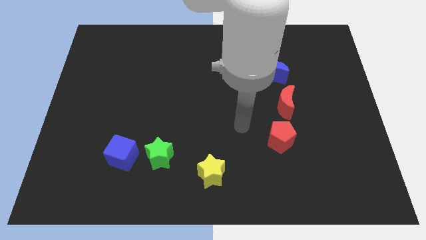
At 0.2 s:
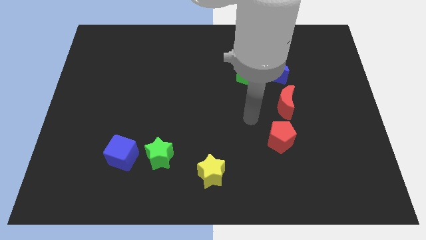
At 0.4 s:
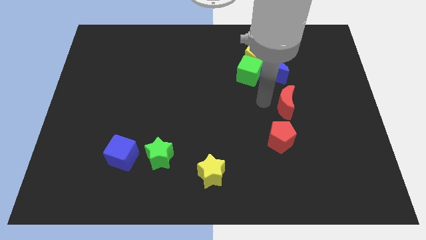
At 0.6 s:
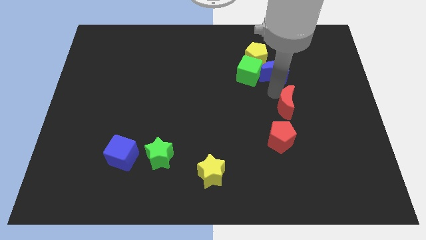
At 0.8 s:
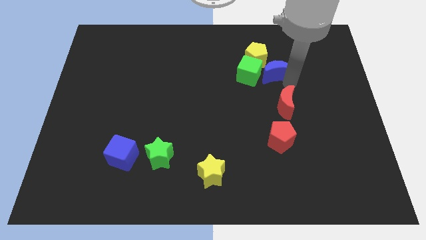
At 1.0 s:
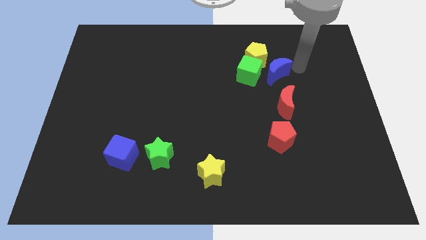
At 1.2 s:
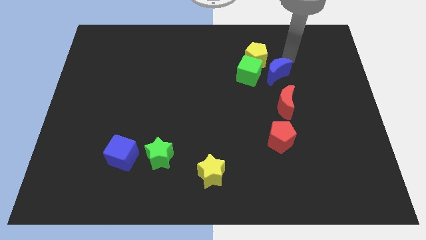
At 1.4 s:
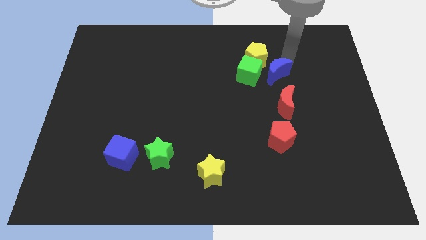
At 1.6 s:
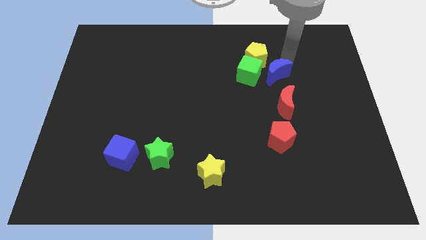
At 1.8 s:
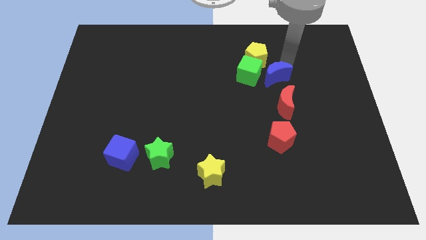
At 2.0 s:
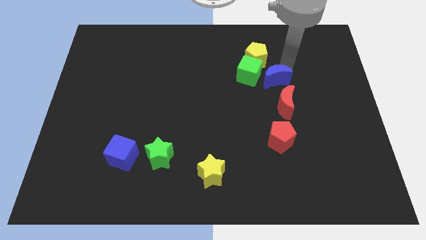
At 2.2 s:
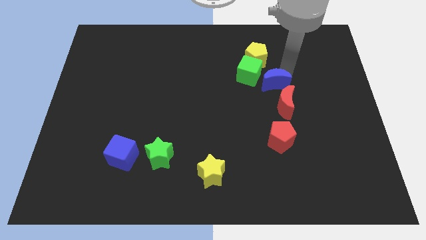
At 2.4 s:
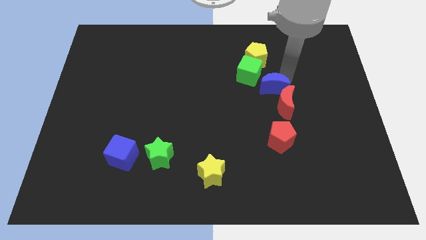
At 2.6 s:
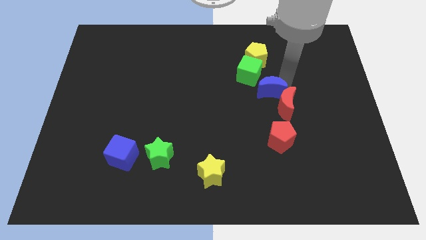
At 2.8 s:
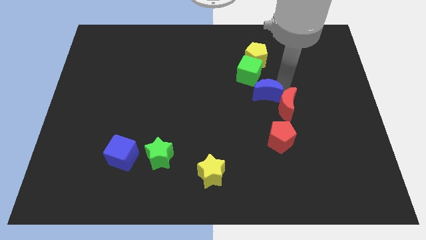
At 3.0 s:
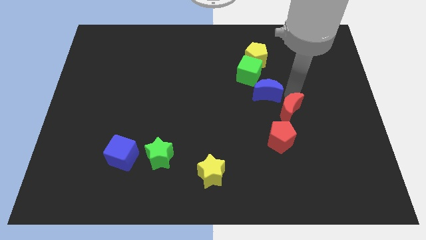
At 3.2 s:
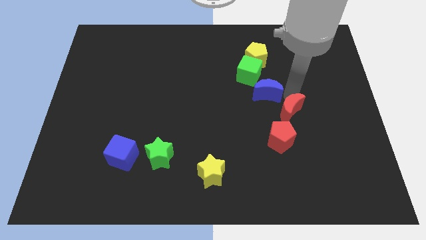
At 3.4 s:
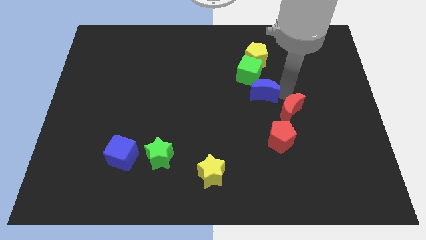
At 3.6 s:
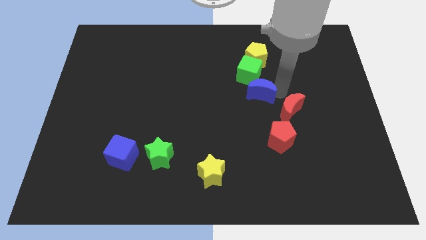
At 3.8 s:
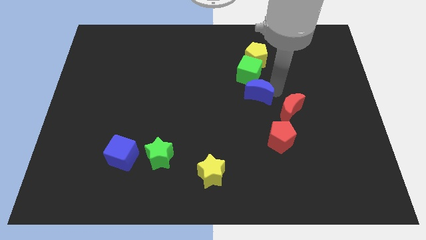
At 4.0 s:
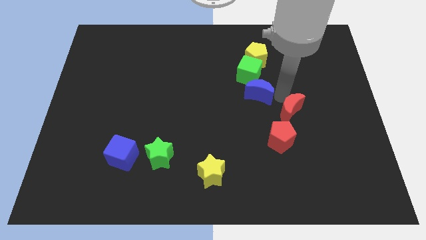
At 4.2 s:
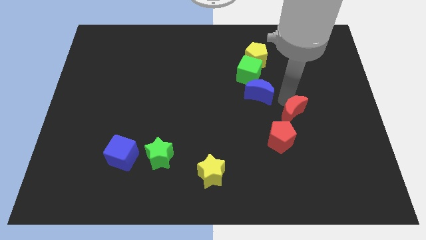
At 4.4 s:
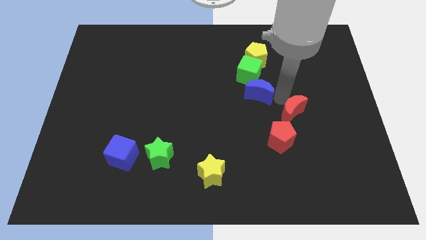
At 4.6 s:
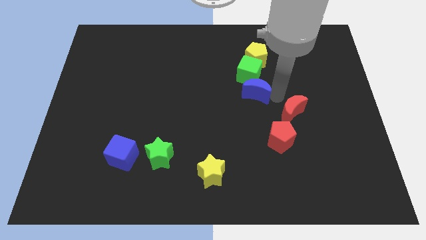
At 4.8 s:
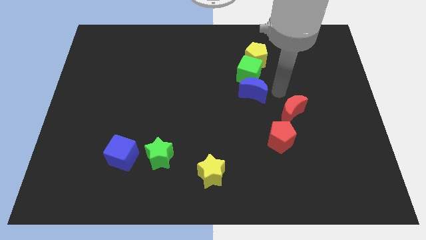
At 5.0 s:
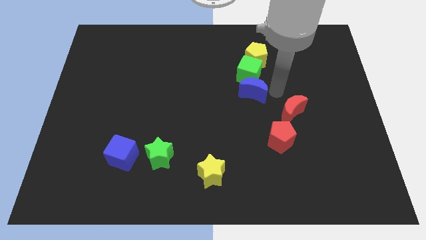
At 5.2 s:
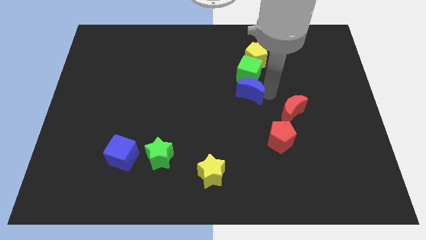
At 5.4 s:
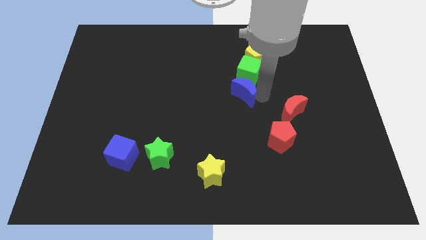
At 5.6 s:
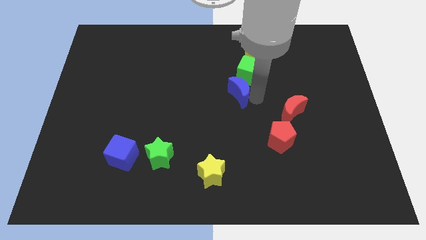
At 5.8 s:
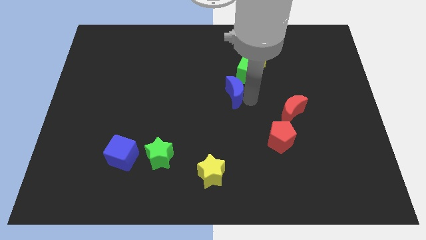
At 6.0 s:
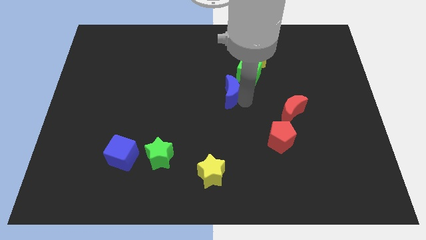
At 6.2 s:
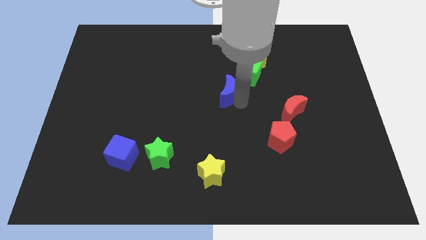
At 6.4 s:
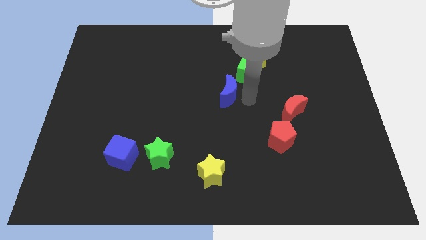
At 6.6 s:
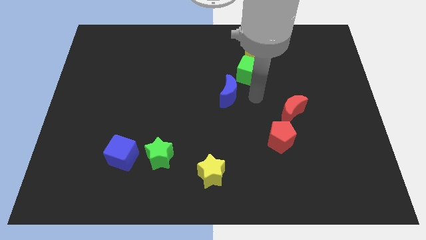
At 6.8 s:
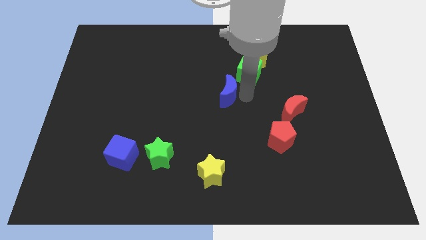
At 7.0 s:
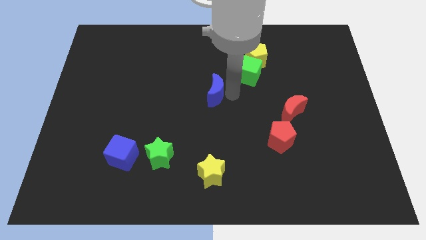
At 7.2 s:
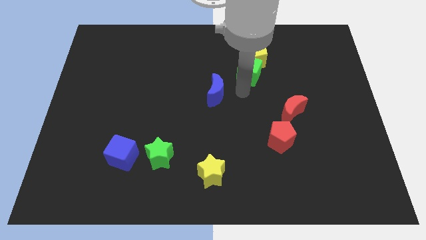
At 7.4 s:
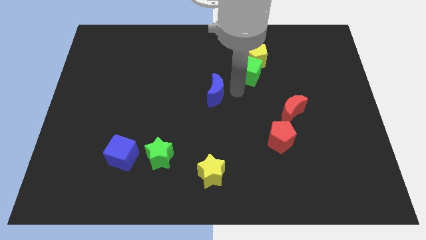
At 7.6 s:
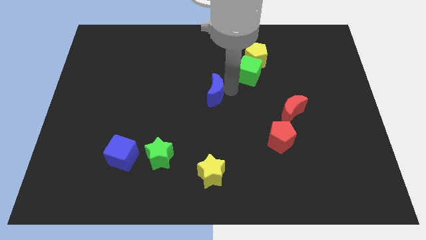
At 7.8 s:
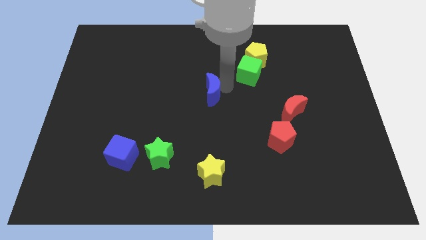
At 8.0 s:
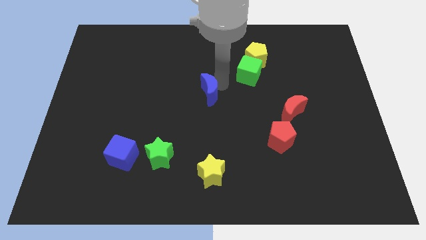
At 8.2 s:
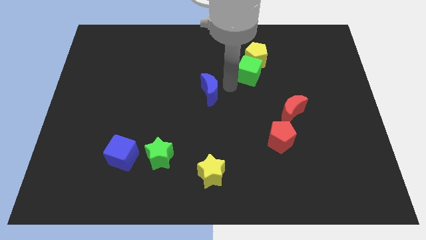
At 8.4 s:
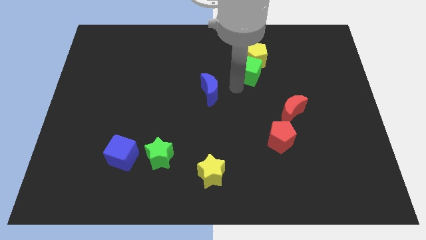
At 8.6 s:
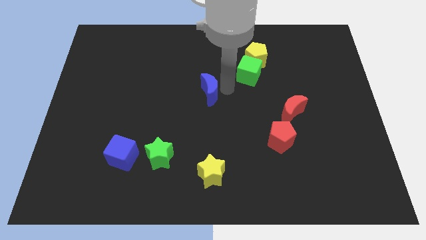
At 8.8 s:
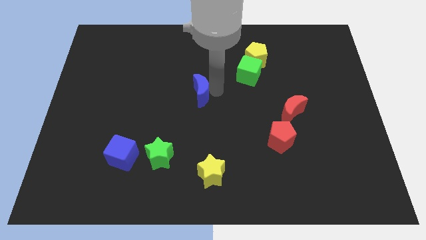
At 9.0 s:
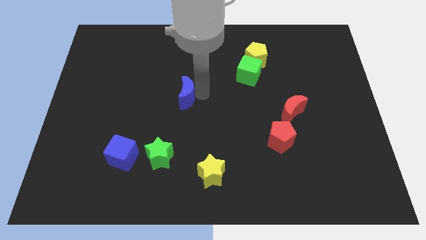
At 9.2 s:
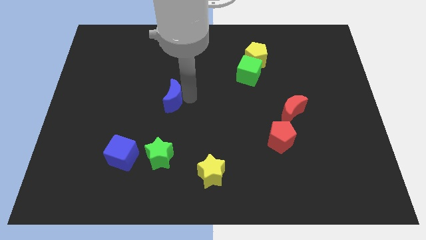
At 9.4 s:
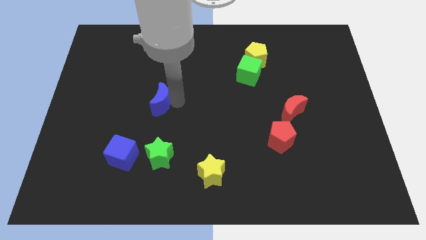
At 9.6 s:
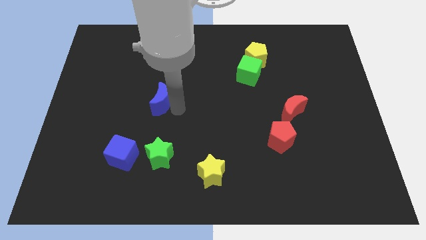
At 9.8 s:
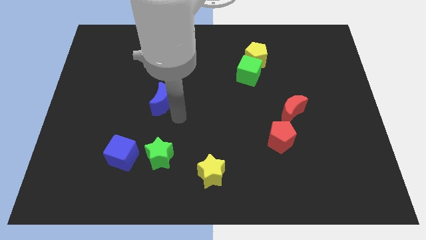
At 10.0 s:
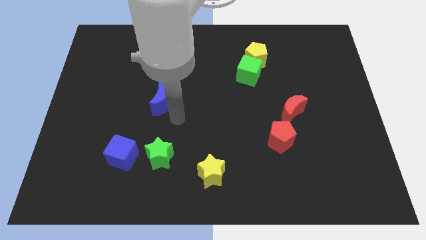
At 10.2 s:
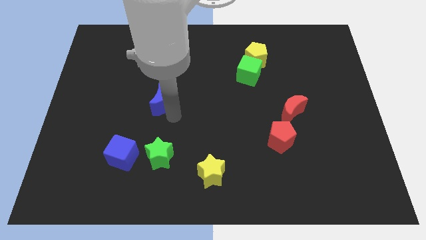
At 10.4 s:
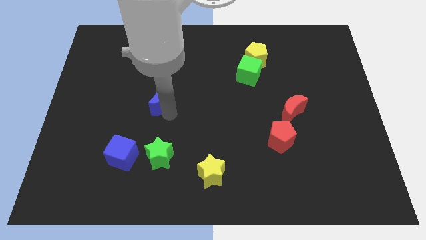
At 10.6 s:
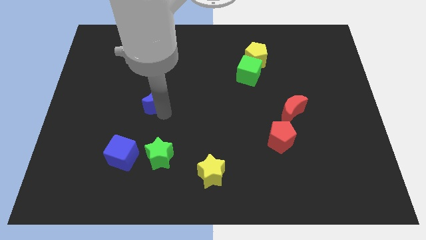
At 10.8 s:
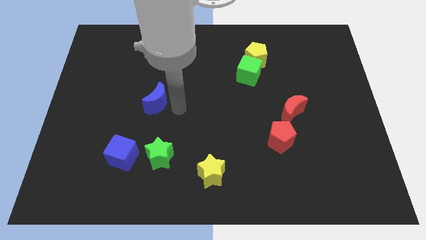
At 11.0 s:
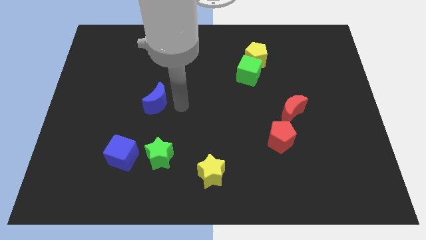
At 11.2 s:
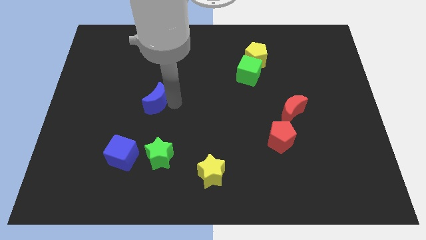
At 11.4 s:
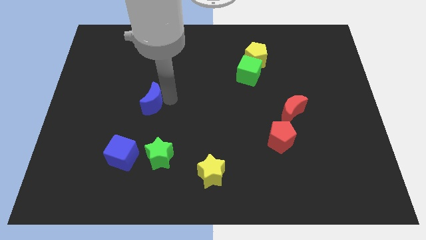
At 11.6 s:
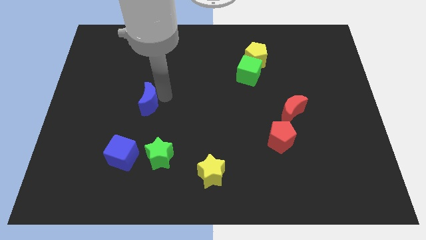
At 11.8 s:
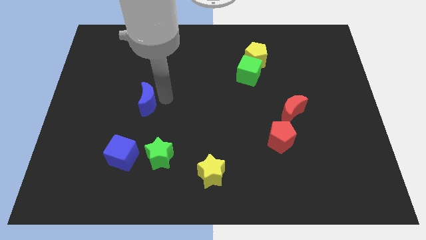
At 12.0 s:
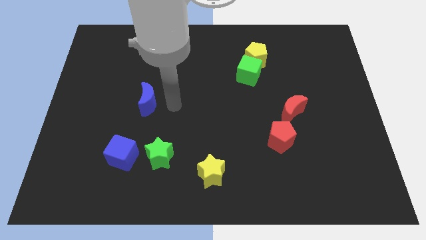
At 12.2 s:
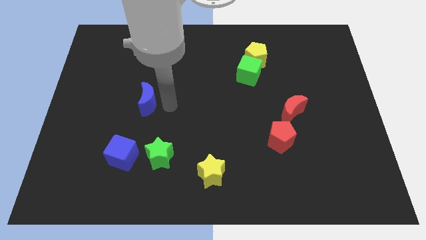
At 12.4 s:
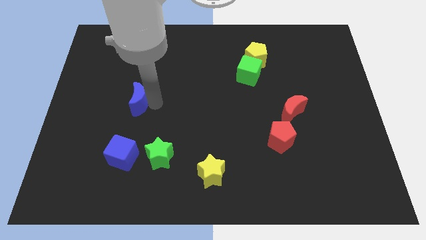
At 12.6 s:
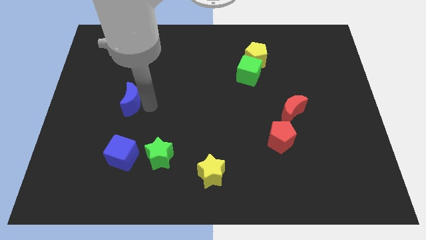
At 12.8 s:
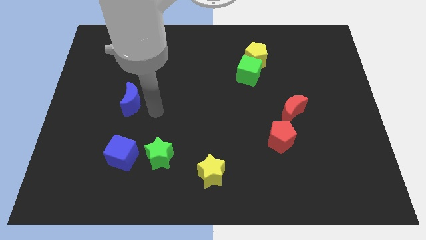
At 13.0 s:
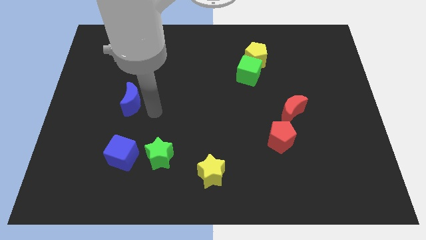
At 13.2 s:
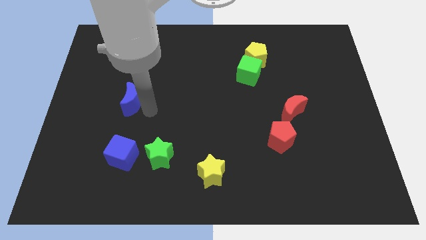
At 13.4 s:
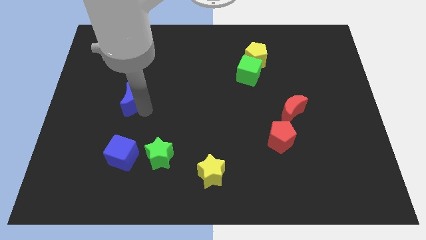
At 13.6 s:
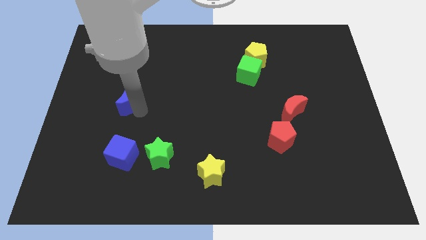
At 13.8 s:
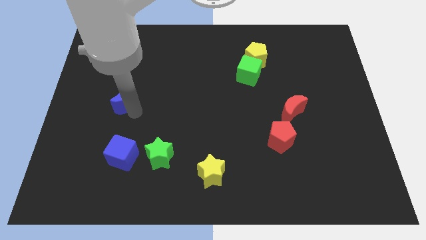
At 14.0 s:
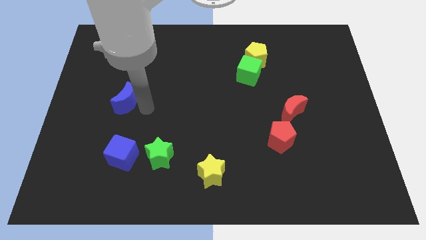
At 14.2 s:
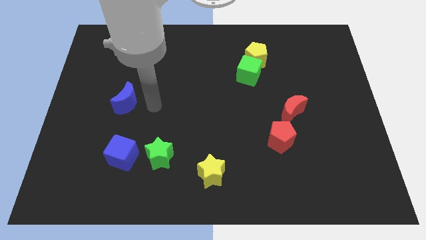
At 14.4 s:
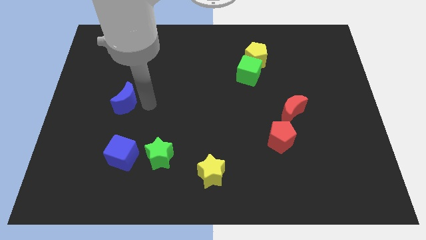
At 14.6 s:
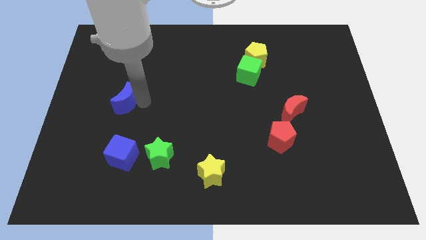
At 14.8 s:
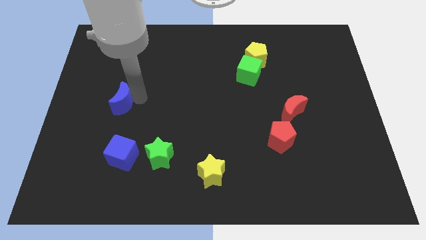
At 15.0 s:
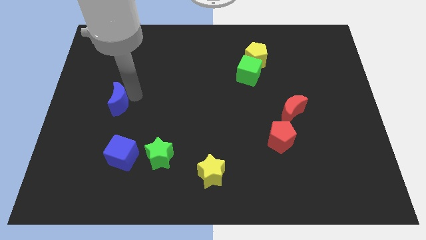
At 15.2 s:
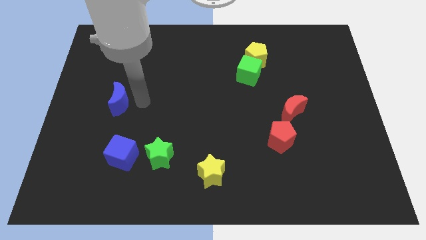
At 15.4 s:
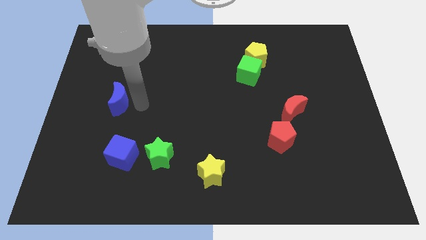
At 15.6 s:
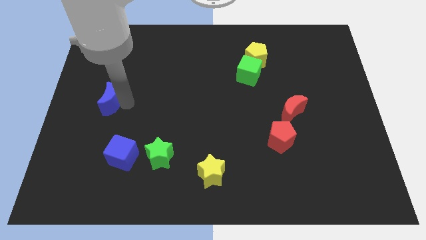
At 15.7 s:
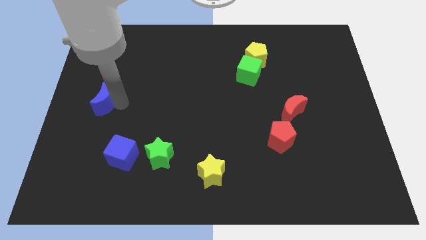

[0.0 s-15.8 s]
move the blue moon to the left side
